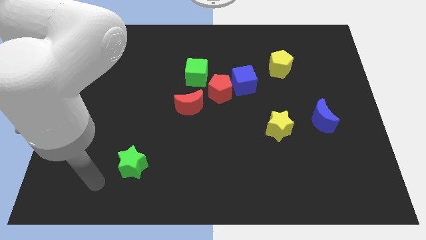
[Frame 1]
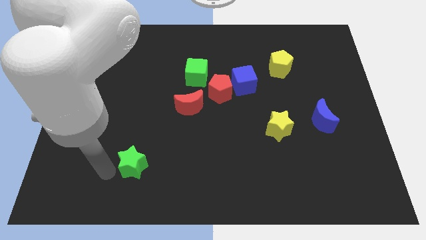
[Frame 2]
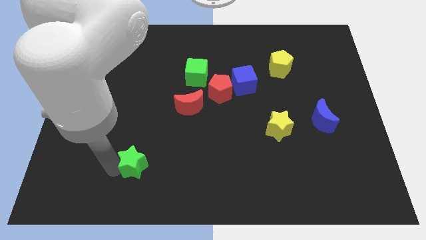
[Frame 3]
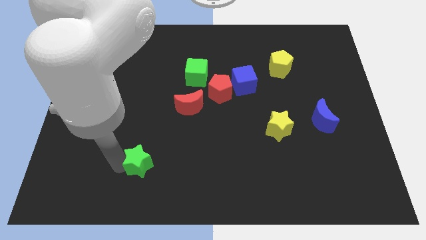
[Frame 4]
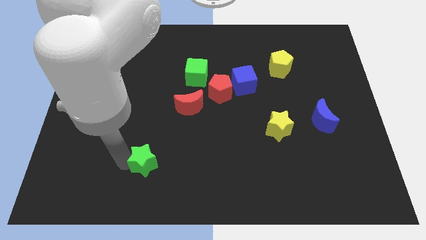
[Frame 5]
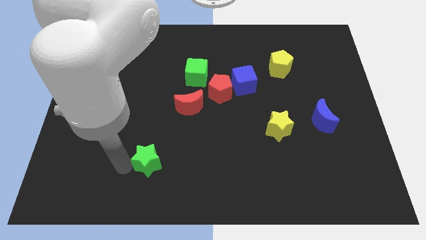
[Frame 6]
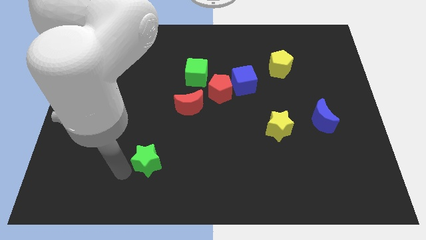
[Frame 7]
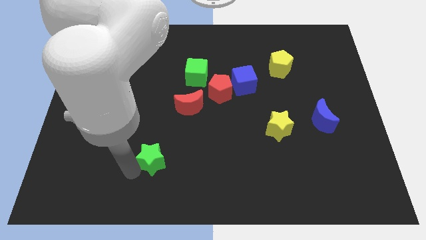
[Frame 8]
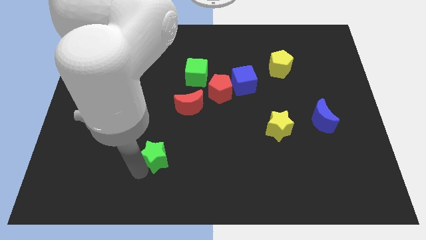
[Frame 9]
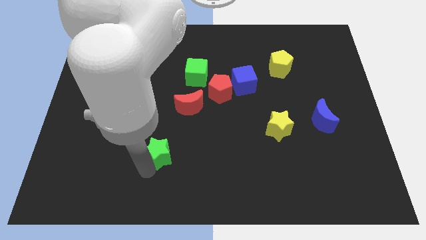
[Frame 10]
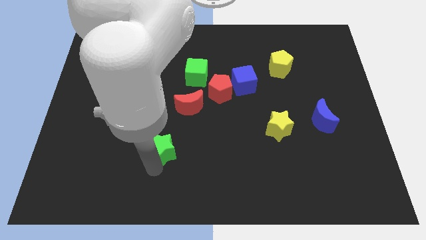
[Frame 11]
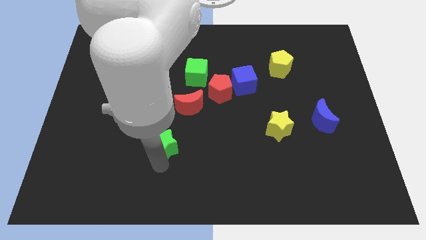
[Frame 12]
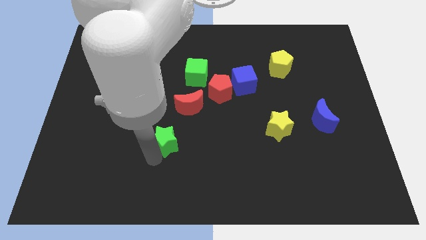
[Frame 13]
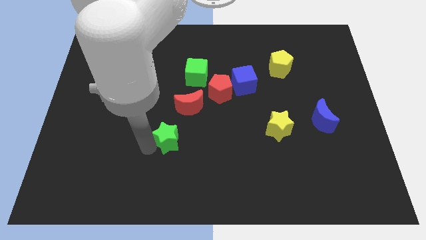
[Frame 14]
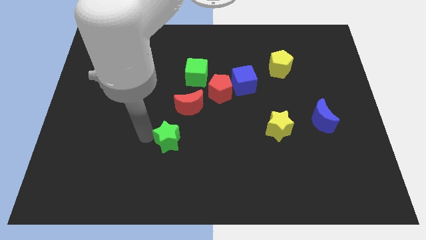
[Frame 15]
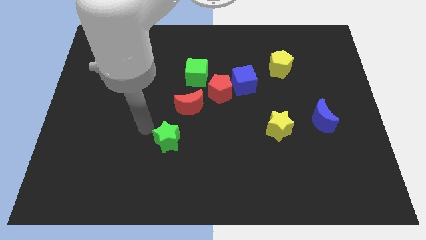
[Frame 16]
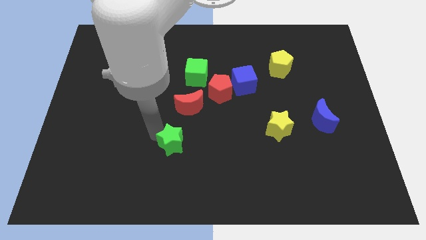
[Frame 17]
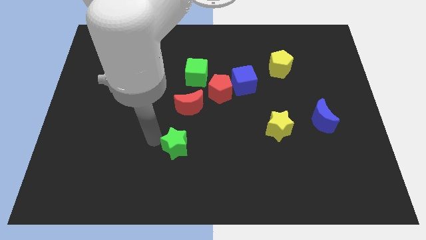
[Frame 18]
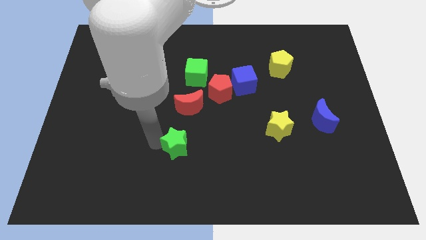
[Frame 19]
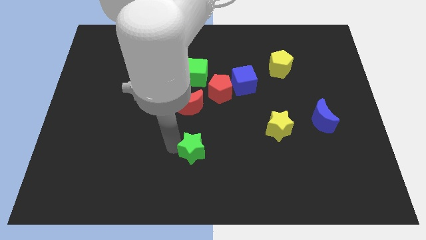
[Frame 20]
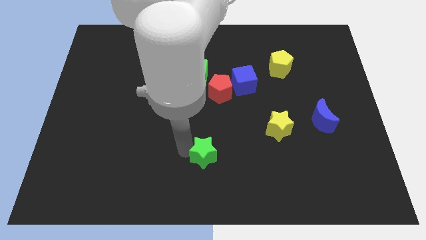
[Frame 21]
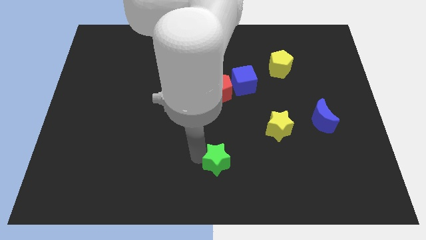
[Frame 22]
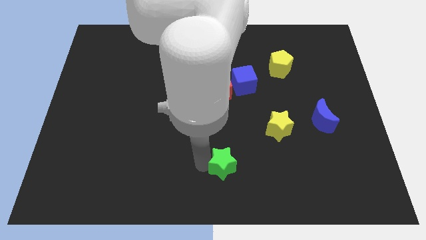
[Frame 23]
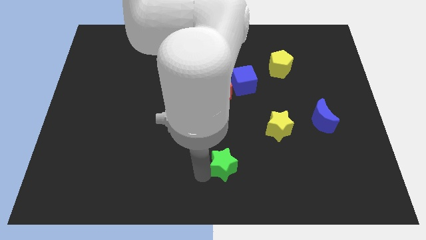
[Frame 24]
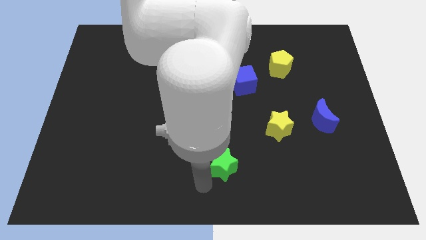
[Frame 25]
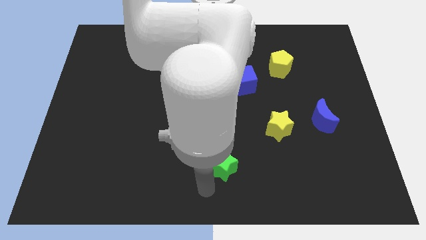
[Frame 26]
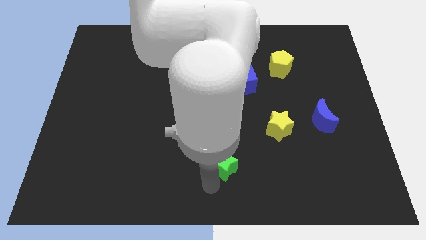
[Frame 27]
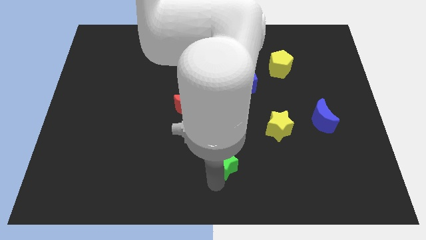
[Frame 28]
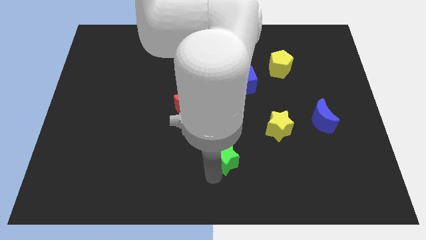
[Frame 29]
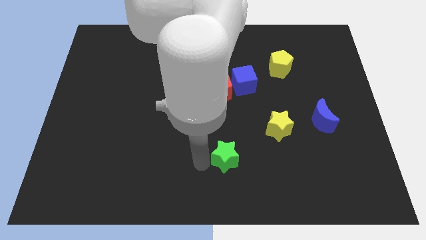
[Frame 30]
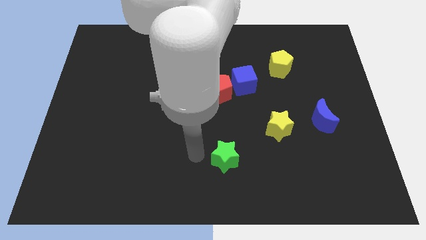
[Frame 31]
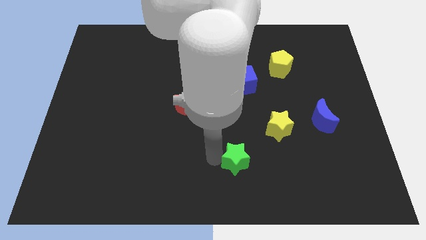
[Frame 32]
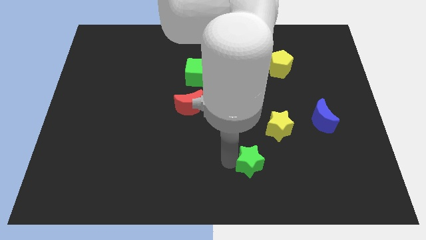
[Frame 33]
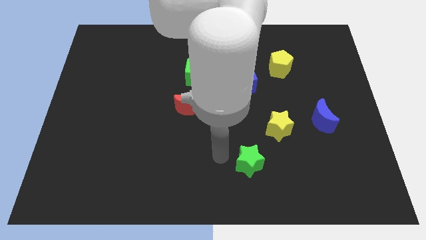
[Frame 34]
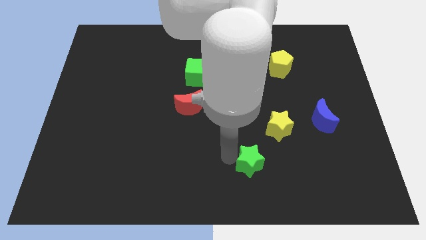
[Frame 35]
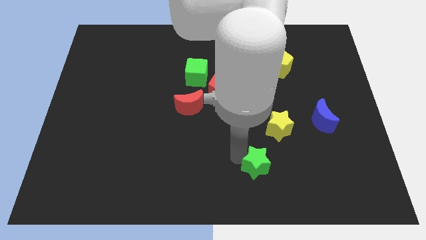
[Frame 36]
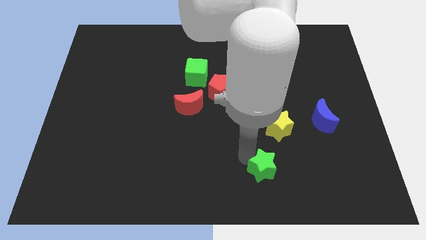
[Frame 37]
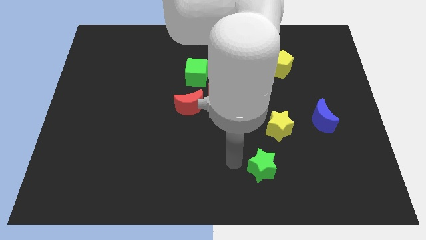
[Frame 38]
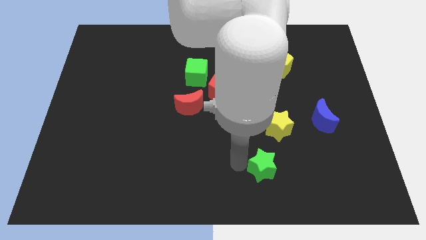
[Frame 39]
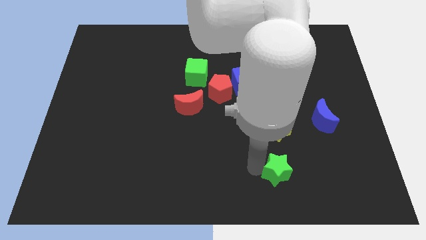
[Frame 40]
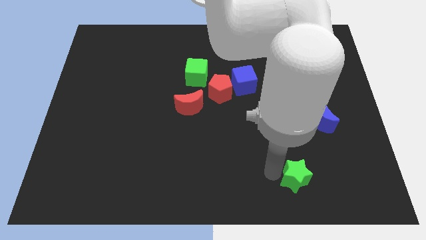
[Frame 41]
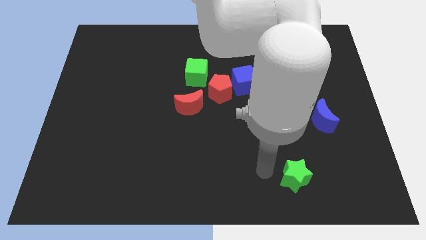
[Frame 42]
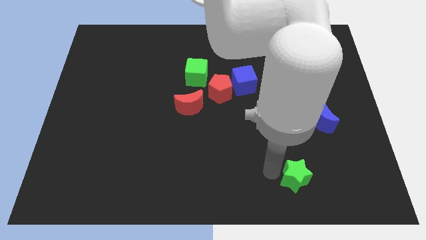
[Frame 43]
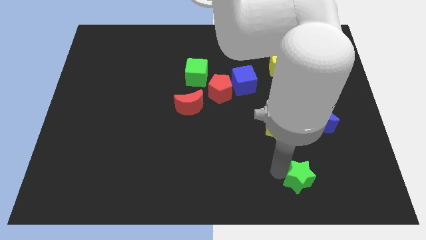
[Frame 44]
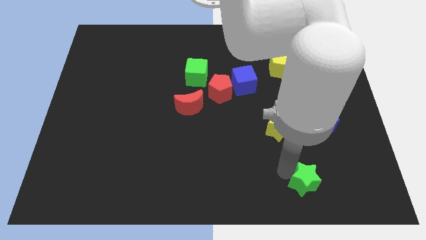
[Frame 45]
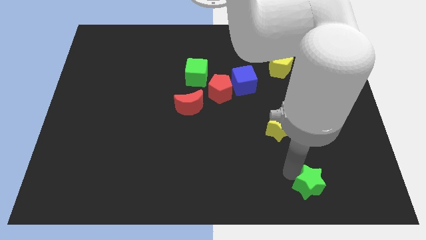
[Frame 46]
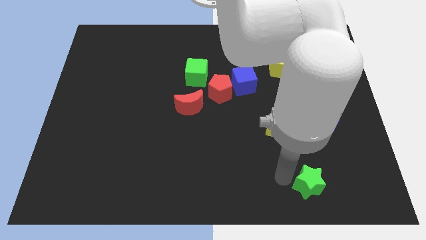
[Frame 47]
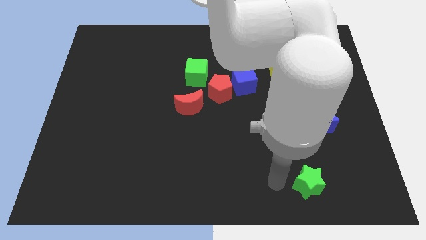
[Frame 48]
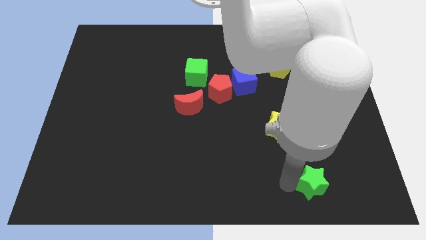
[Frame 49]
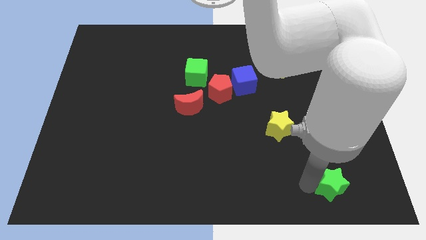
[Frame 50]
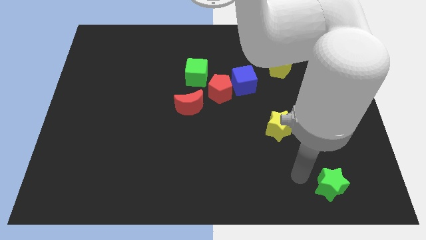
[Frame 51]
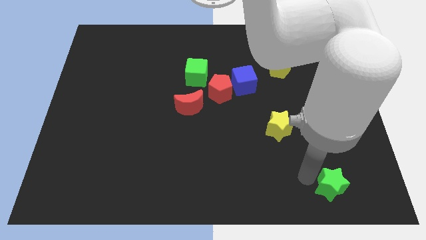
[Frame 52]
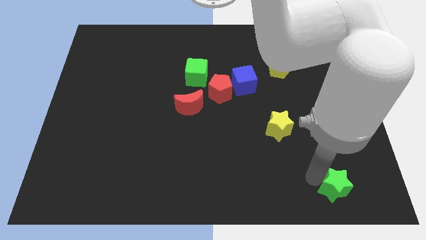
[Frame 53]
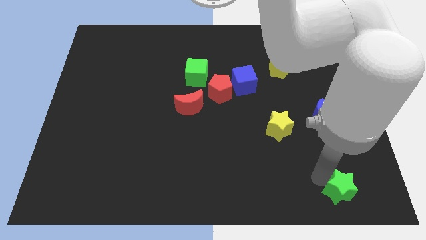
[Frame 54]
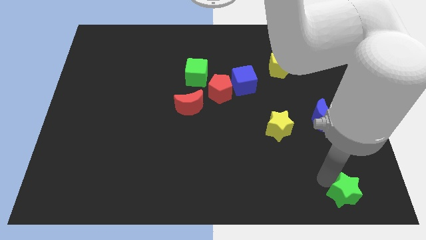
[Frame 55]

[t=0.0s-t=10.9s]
push the green star to the bottom right corner

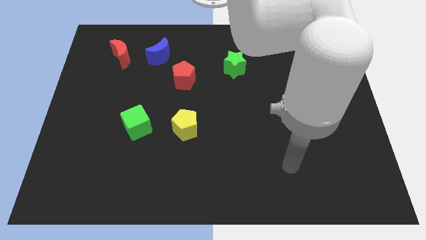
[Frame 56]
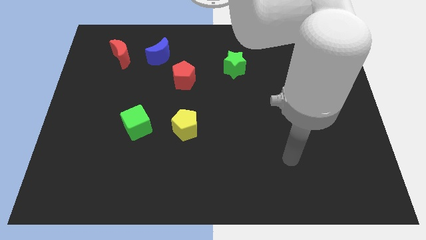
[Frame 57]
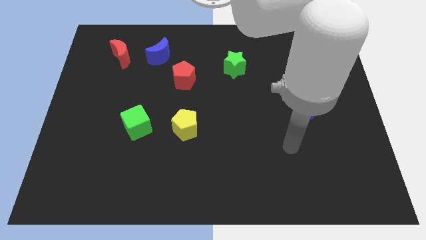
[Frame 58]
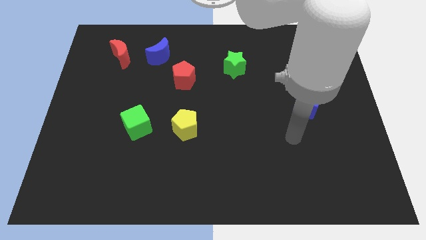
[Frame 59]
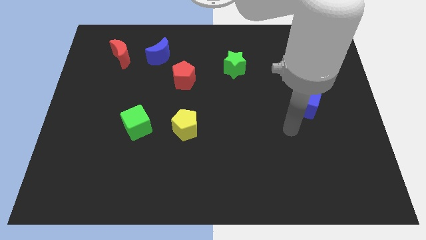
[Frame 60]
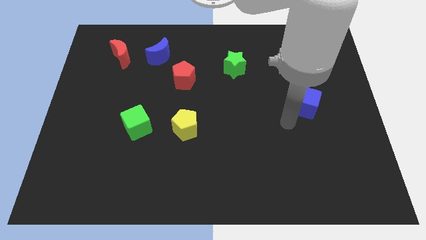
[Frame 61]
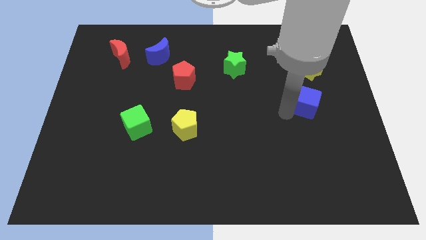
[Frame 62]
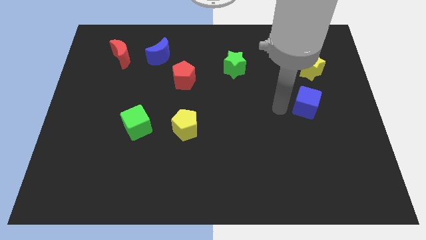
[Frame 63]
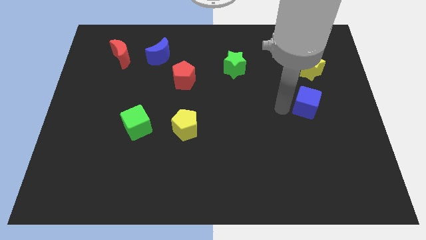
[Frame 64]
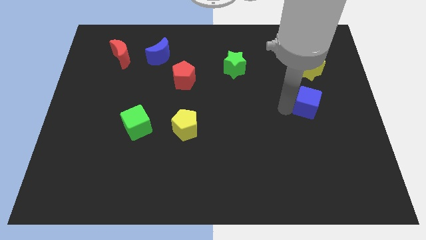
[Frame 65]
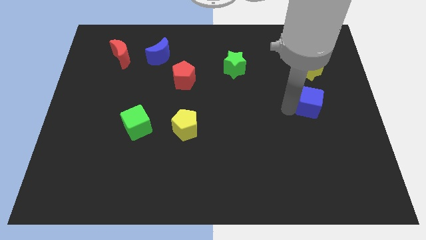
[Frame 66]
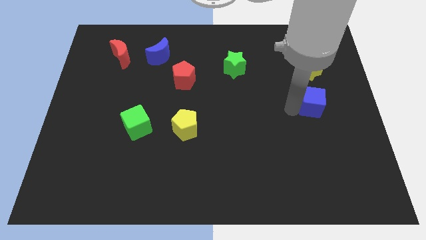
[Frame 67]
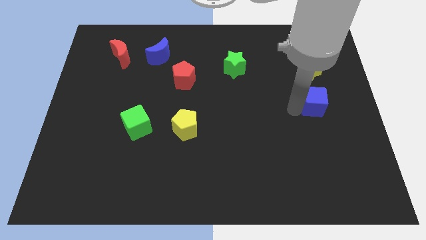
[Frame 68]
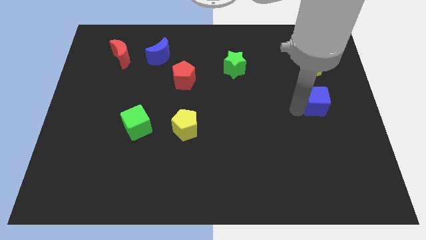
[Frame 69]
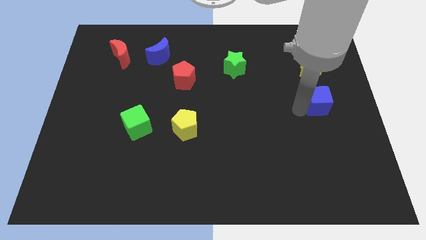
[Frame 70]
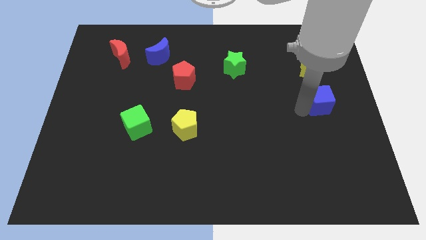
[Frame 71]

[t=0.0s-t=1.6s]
put the blue cube to the center right
